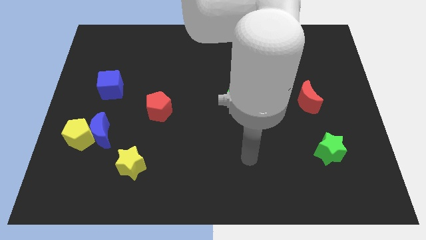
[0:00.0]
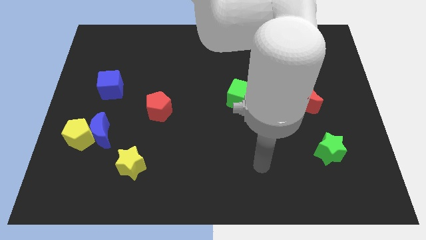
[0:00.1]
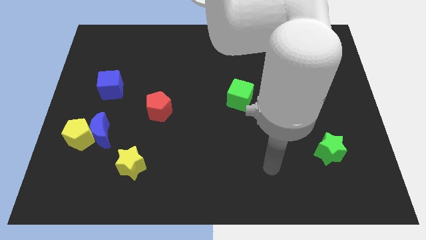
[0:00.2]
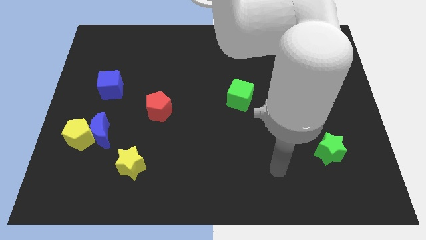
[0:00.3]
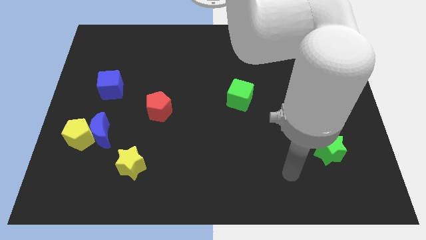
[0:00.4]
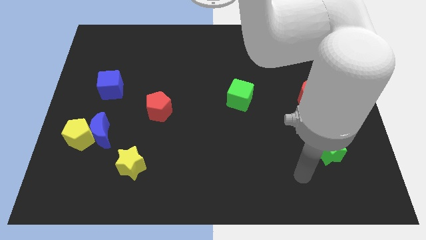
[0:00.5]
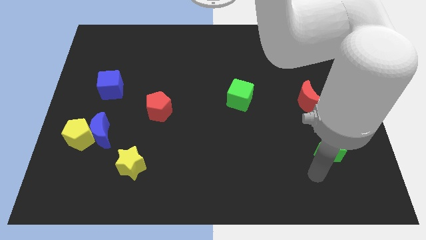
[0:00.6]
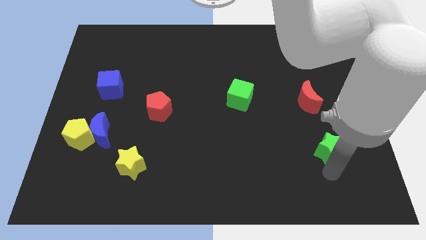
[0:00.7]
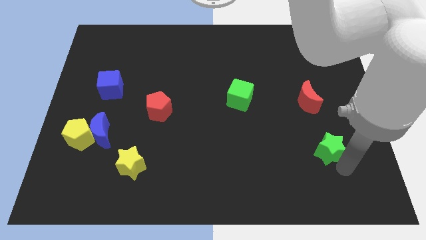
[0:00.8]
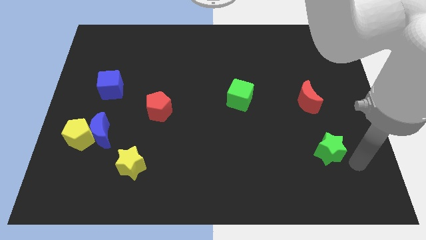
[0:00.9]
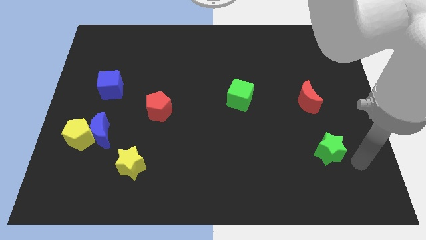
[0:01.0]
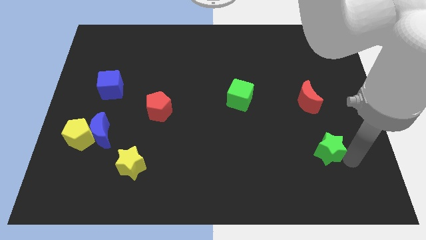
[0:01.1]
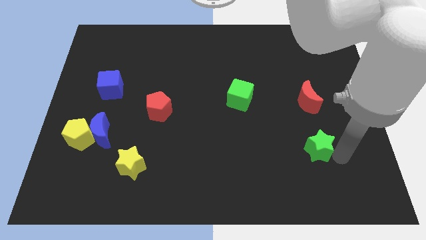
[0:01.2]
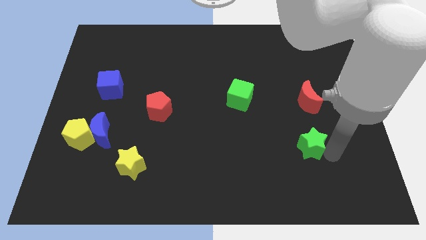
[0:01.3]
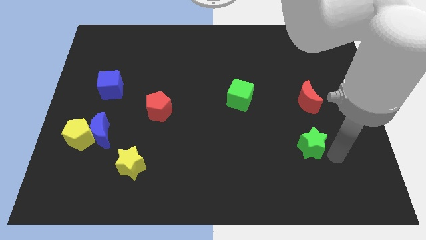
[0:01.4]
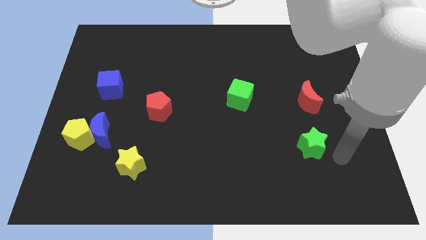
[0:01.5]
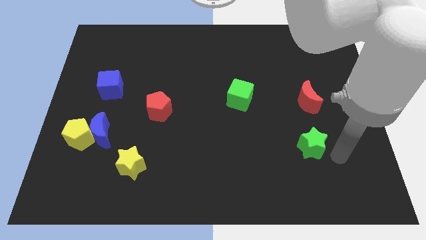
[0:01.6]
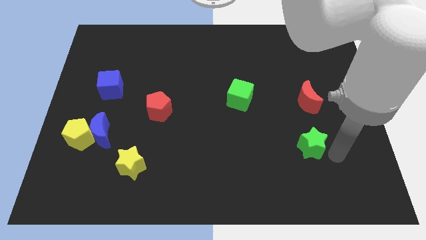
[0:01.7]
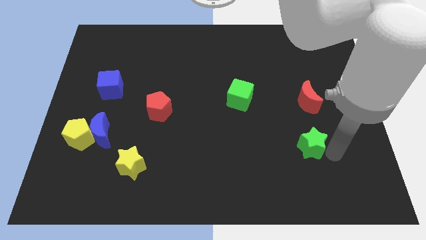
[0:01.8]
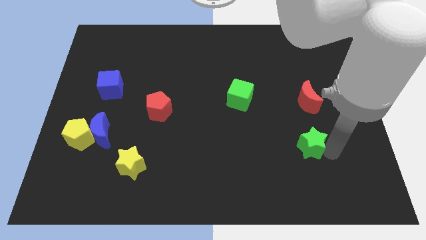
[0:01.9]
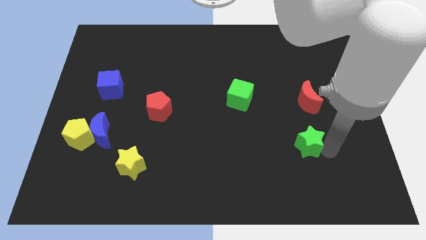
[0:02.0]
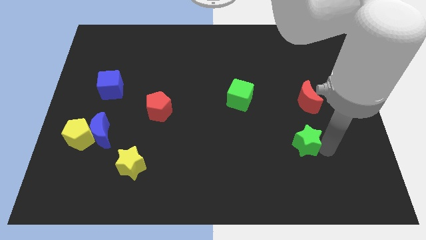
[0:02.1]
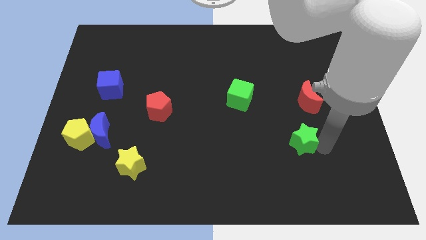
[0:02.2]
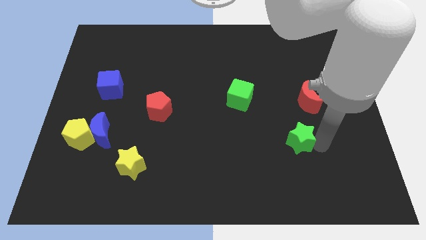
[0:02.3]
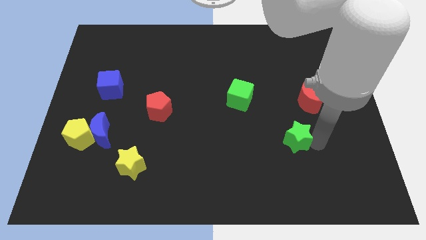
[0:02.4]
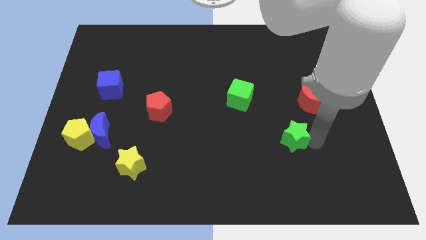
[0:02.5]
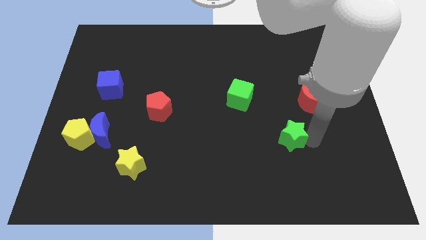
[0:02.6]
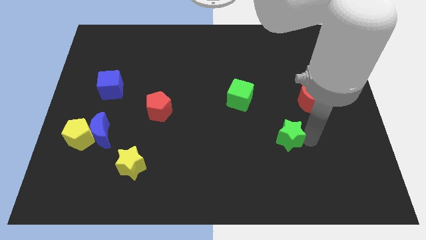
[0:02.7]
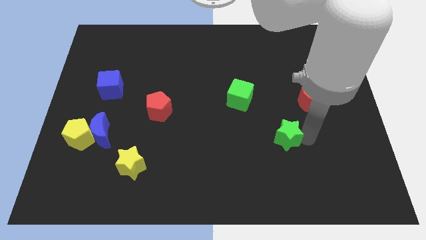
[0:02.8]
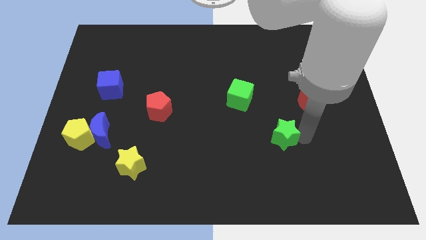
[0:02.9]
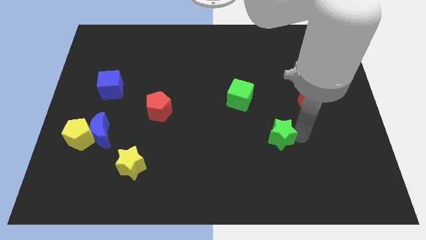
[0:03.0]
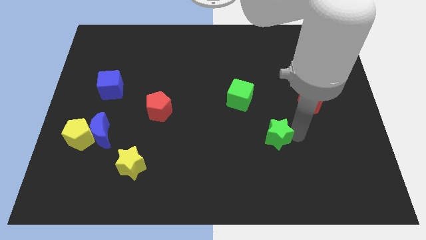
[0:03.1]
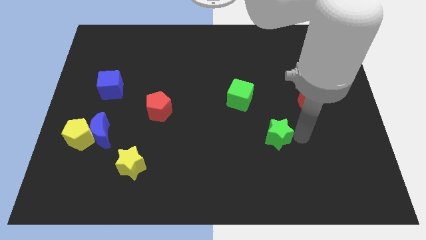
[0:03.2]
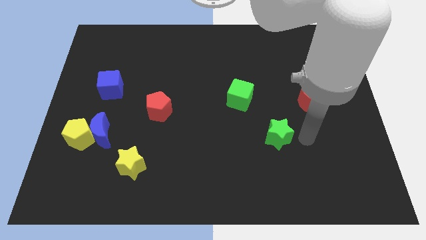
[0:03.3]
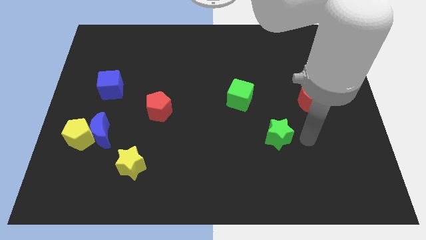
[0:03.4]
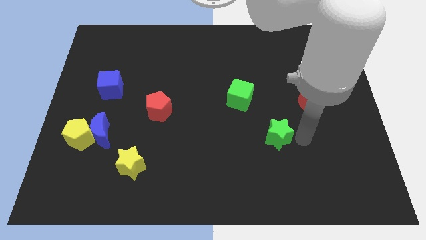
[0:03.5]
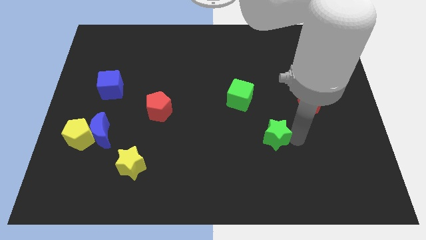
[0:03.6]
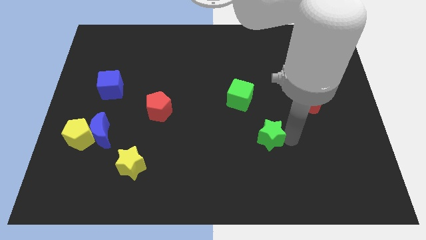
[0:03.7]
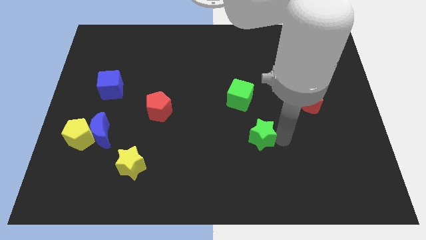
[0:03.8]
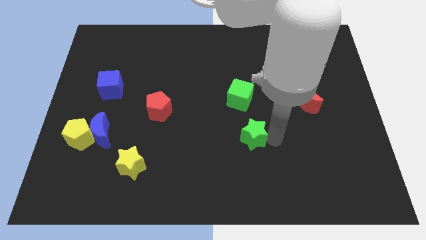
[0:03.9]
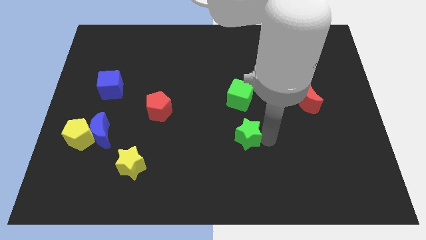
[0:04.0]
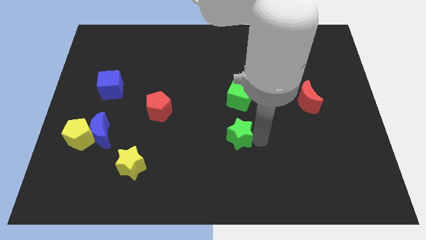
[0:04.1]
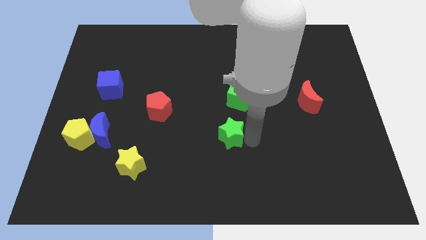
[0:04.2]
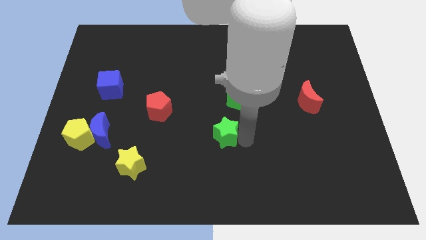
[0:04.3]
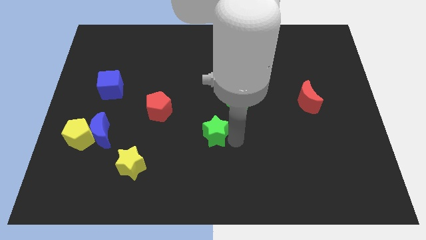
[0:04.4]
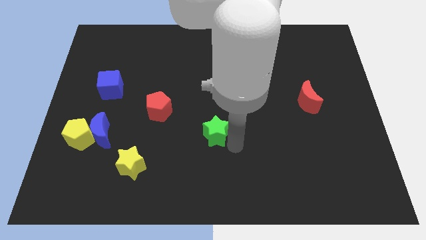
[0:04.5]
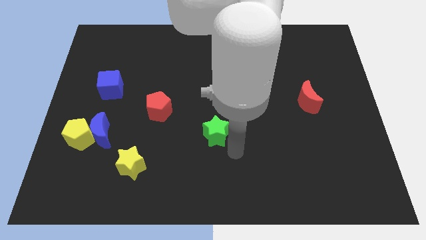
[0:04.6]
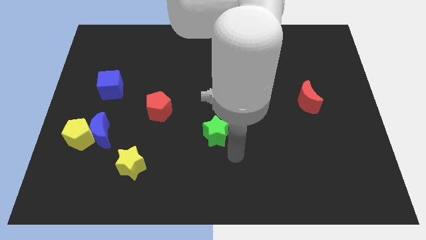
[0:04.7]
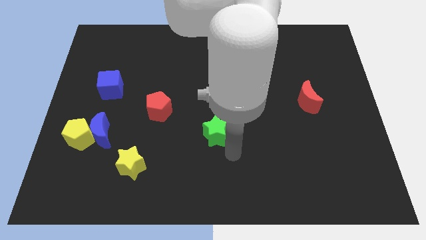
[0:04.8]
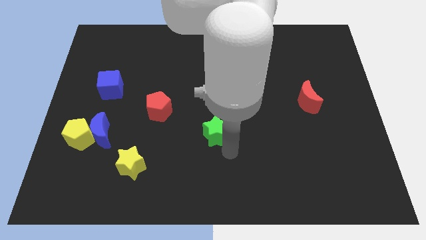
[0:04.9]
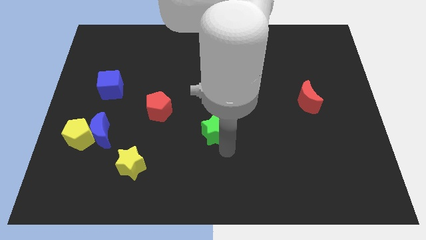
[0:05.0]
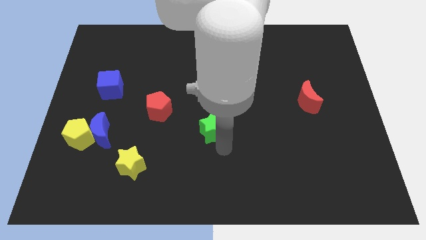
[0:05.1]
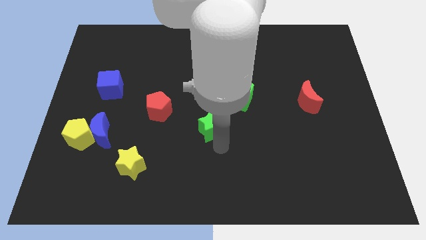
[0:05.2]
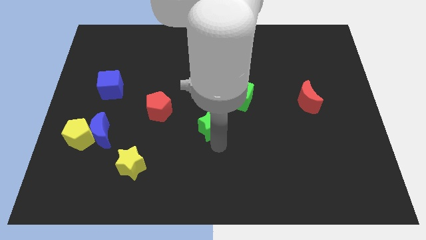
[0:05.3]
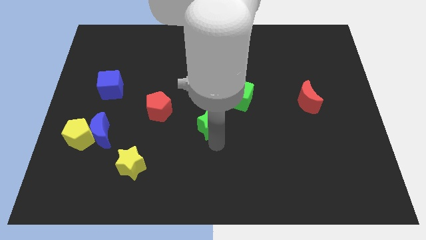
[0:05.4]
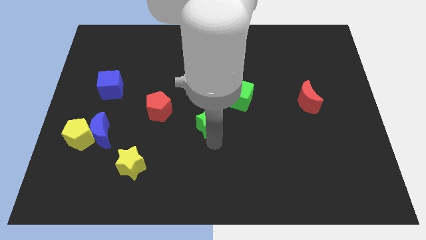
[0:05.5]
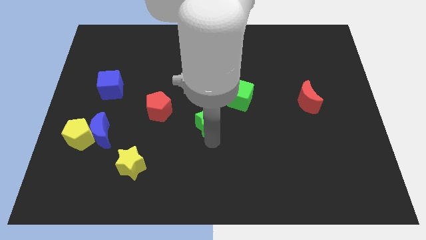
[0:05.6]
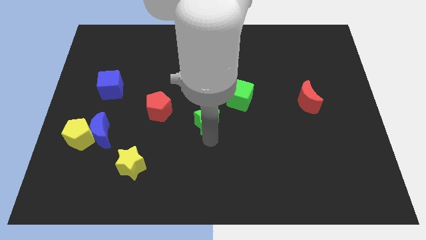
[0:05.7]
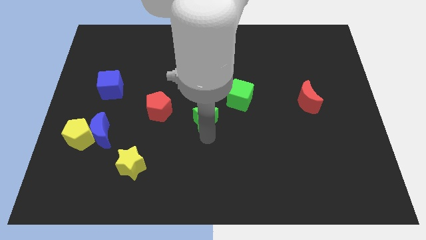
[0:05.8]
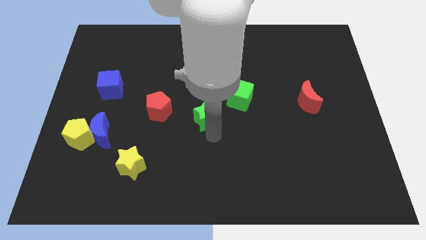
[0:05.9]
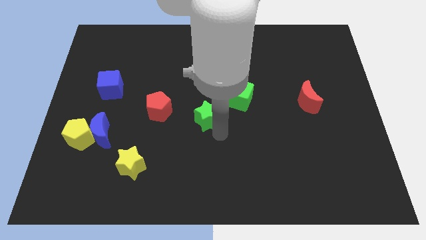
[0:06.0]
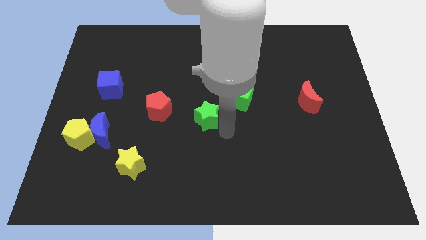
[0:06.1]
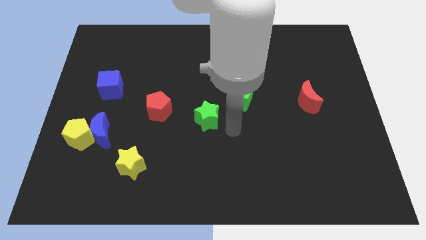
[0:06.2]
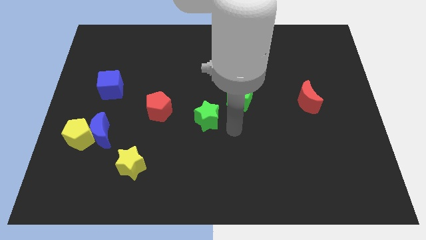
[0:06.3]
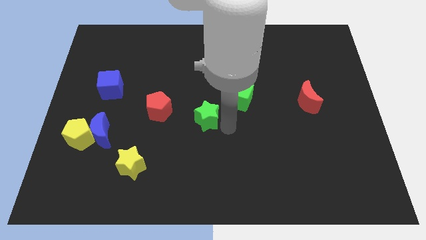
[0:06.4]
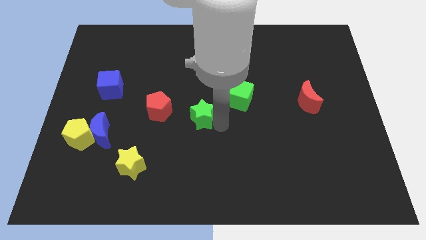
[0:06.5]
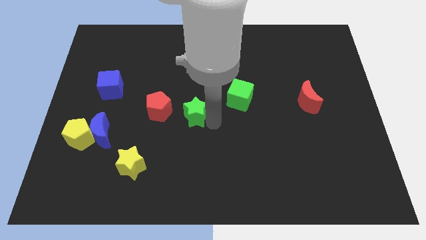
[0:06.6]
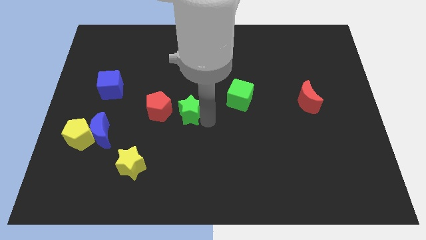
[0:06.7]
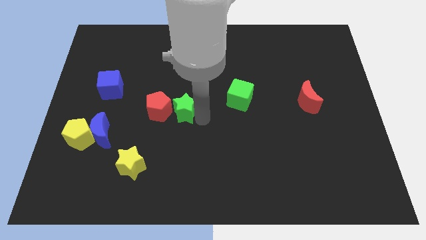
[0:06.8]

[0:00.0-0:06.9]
push the green star next to the red pentagon
